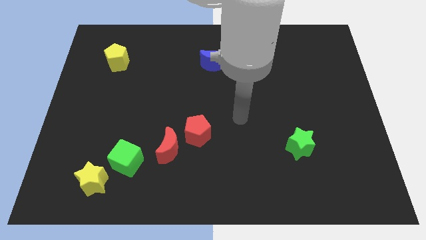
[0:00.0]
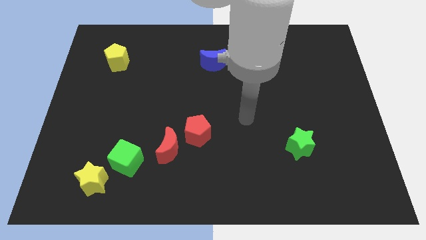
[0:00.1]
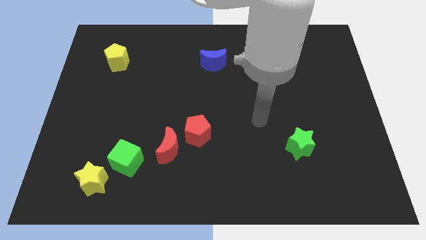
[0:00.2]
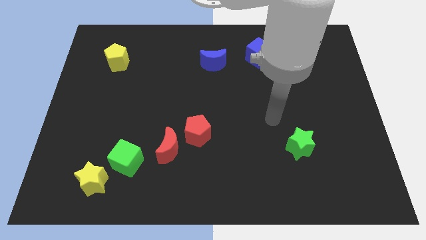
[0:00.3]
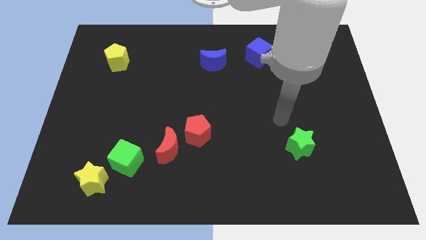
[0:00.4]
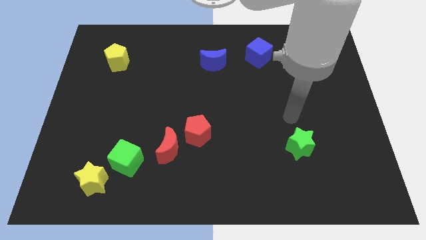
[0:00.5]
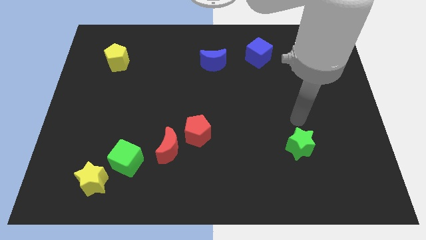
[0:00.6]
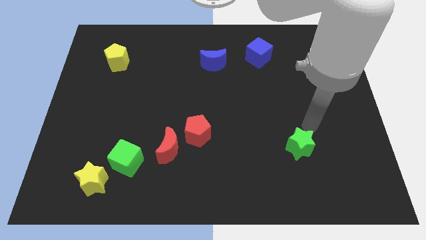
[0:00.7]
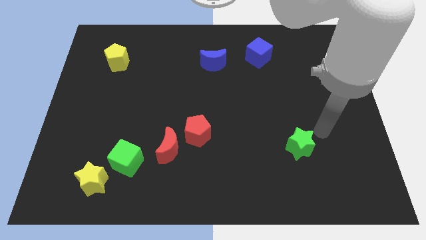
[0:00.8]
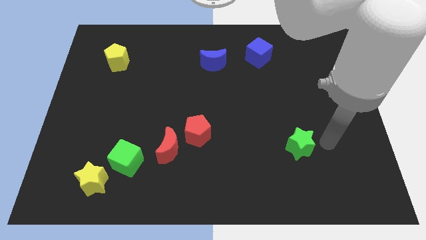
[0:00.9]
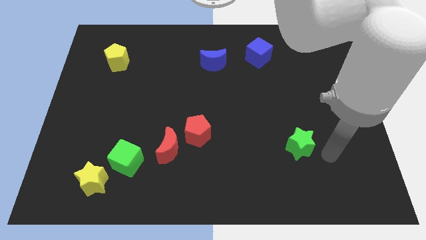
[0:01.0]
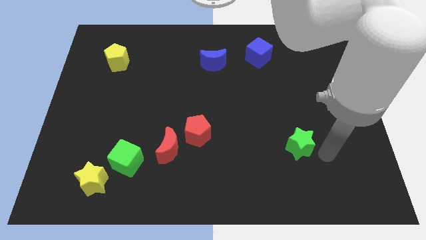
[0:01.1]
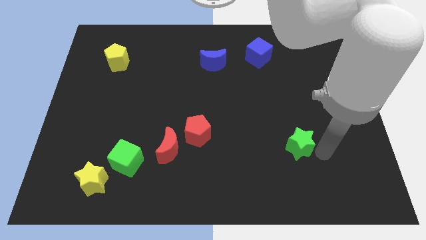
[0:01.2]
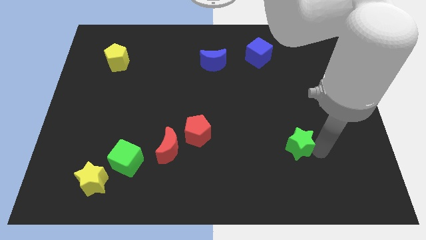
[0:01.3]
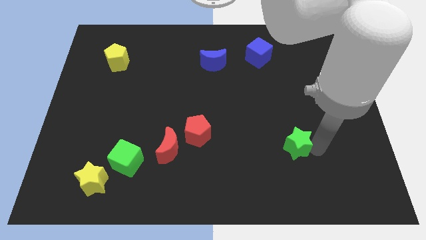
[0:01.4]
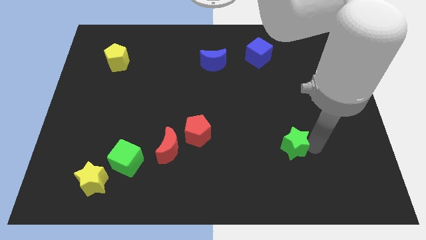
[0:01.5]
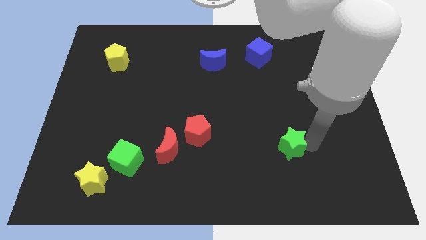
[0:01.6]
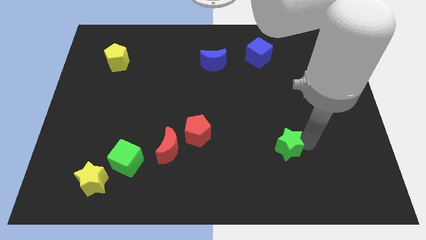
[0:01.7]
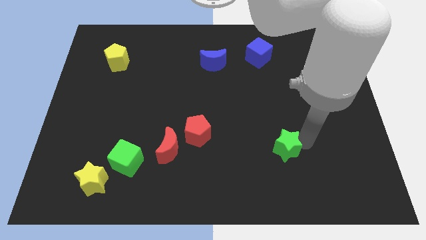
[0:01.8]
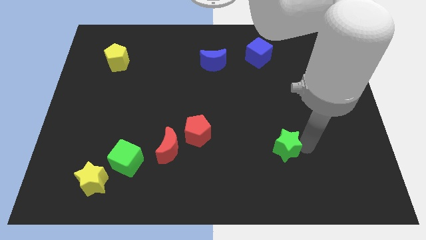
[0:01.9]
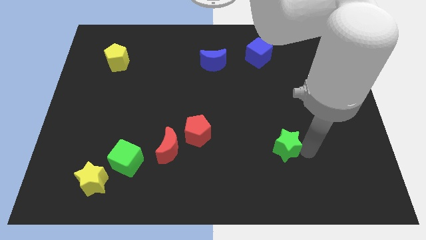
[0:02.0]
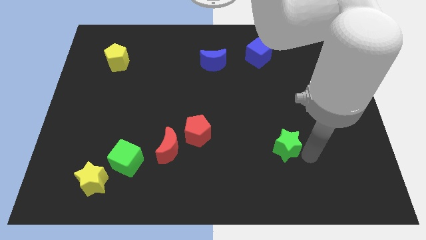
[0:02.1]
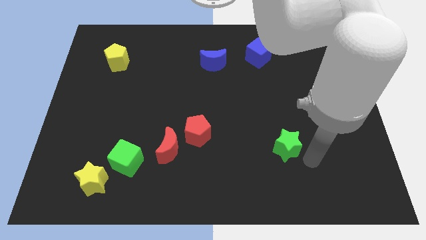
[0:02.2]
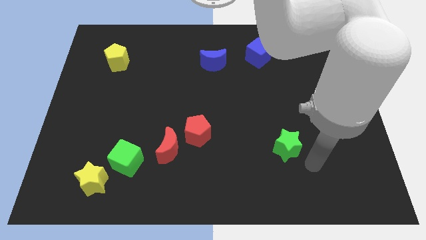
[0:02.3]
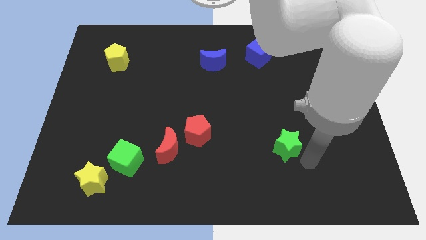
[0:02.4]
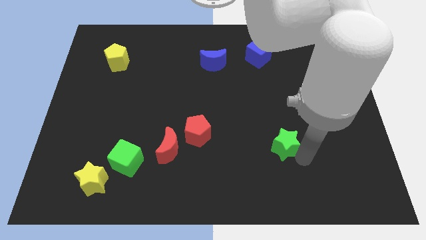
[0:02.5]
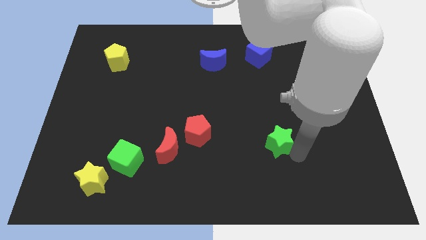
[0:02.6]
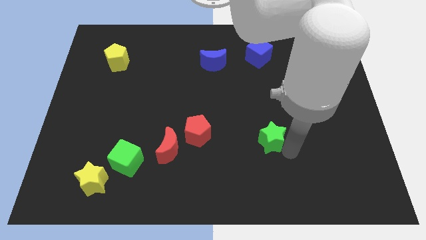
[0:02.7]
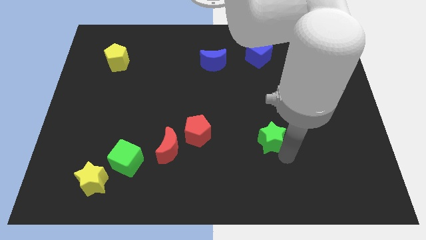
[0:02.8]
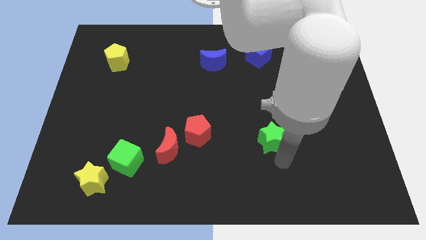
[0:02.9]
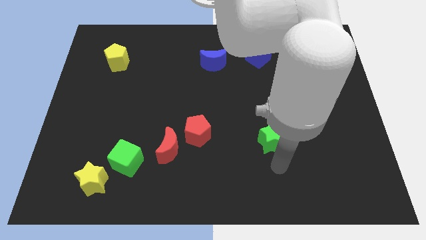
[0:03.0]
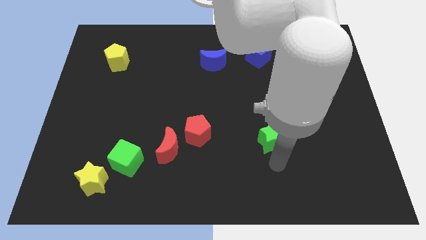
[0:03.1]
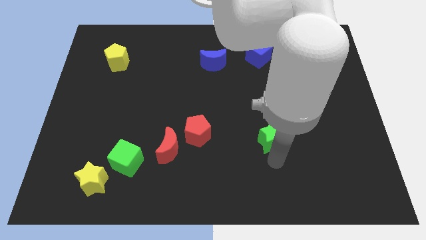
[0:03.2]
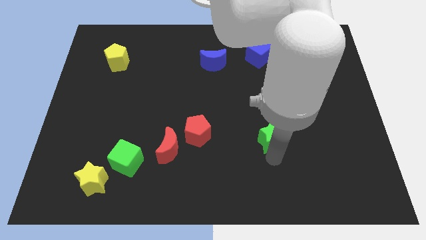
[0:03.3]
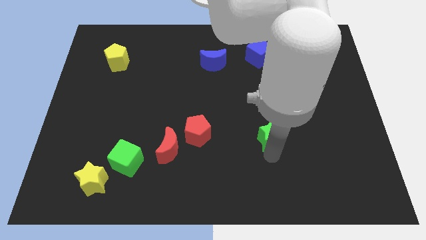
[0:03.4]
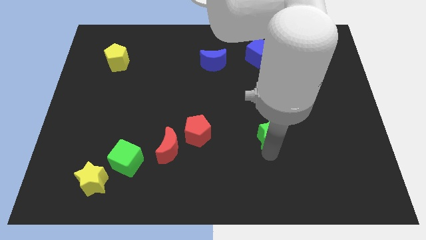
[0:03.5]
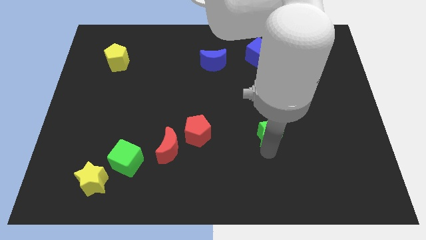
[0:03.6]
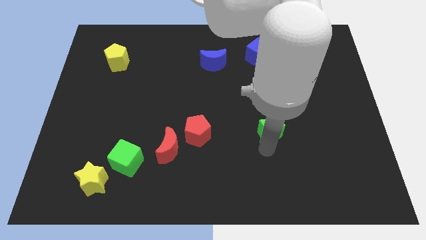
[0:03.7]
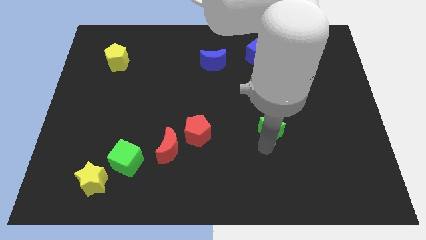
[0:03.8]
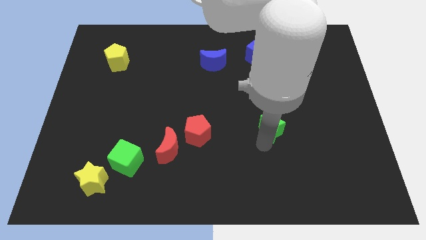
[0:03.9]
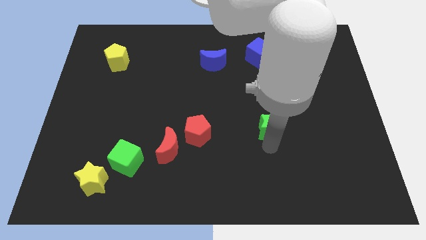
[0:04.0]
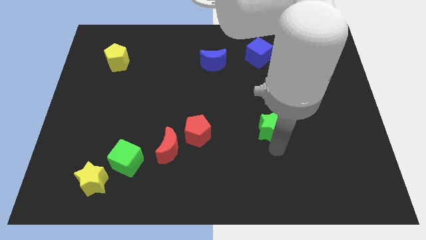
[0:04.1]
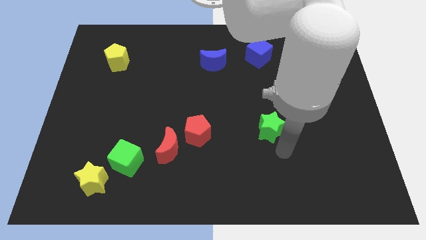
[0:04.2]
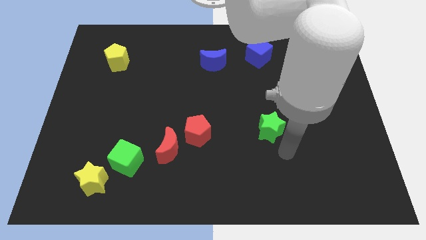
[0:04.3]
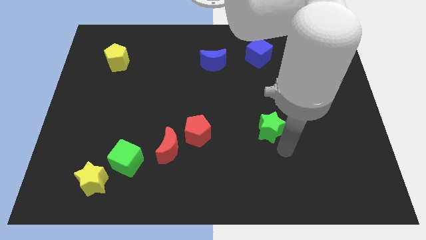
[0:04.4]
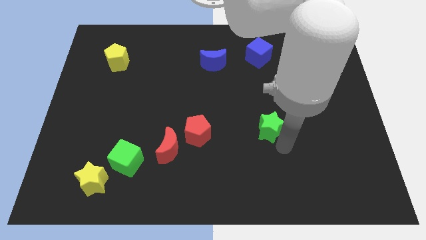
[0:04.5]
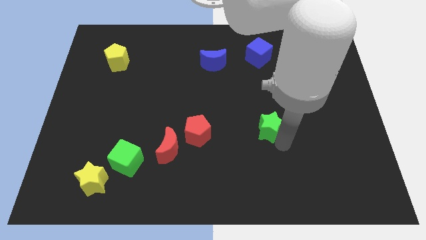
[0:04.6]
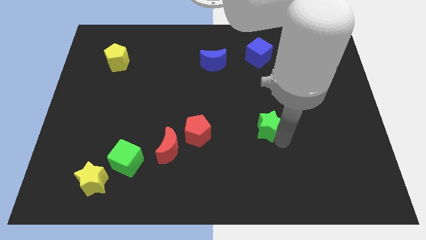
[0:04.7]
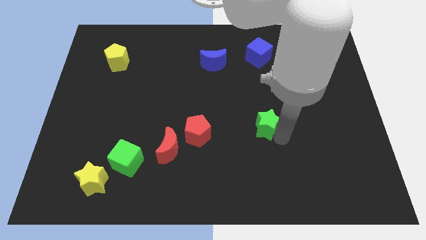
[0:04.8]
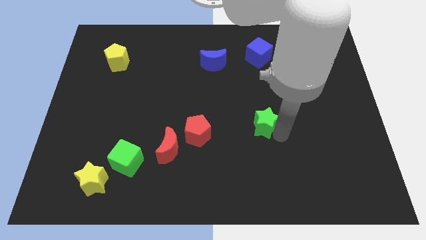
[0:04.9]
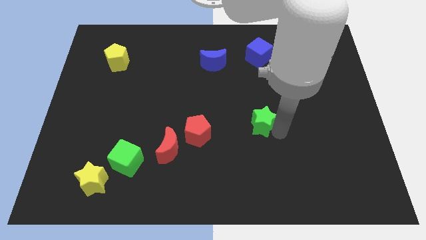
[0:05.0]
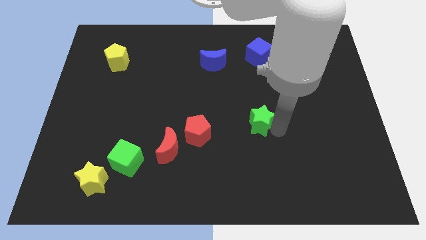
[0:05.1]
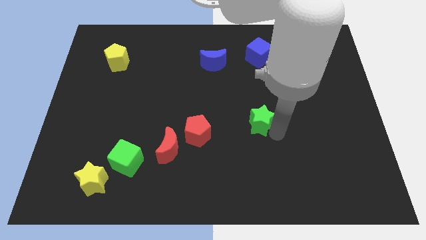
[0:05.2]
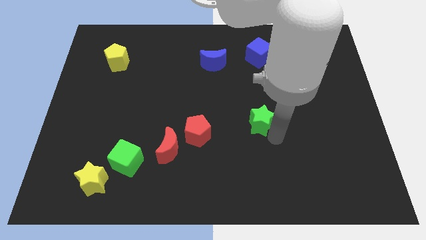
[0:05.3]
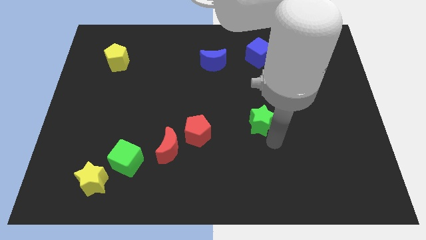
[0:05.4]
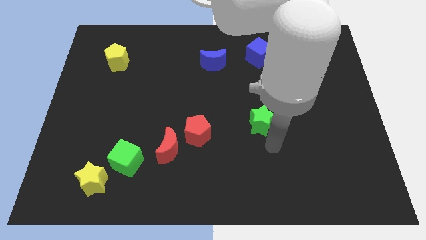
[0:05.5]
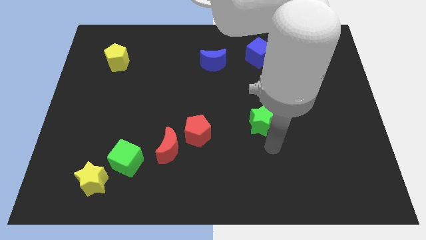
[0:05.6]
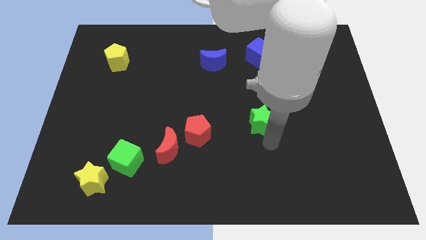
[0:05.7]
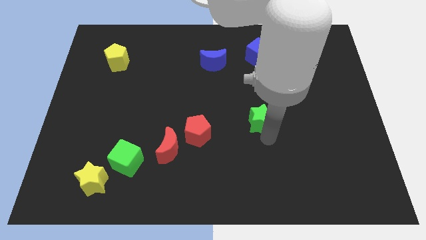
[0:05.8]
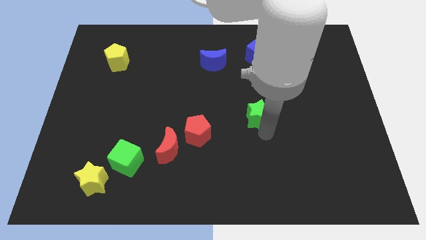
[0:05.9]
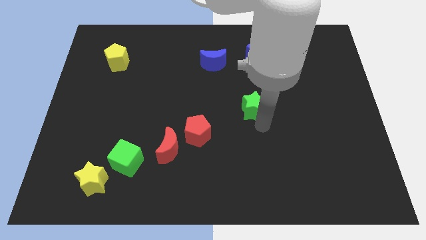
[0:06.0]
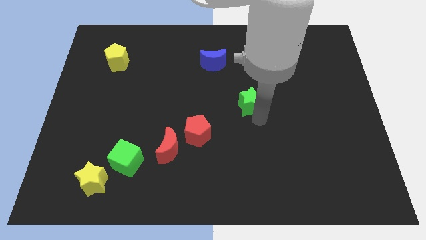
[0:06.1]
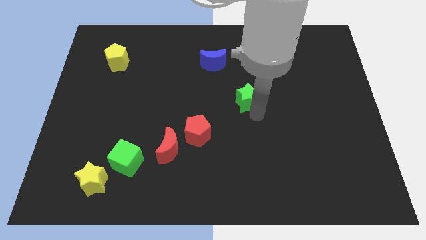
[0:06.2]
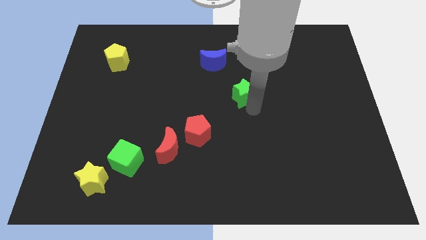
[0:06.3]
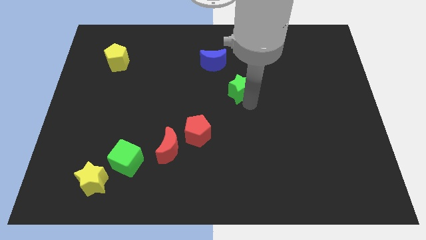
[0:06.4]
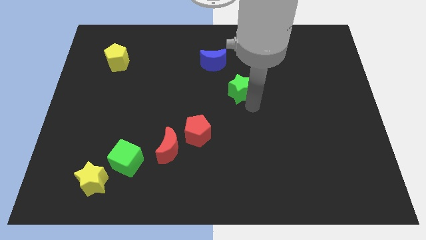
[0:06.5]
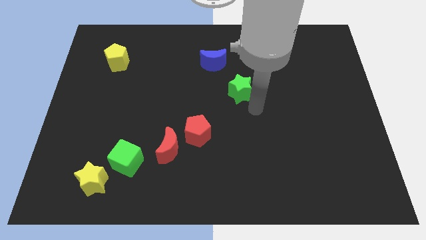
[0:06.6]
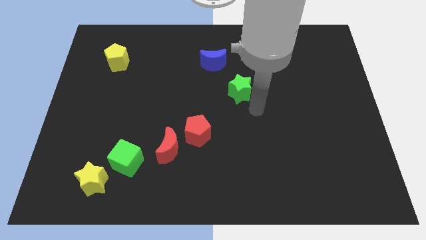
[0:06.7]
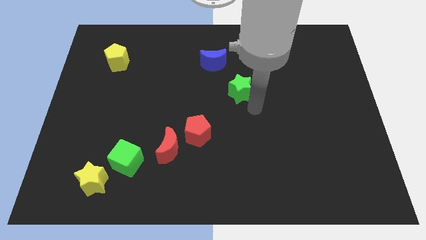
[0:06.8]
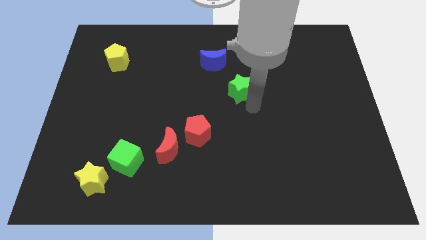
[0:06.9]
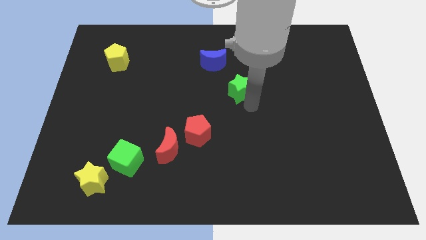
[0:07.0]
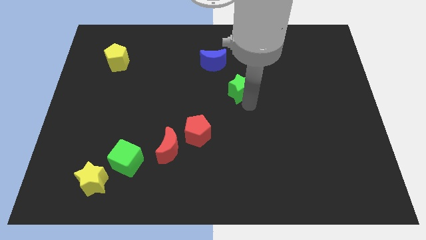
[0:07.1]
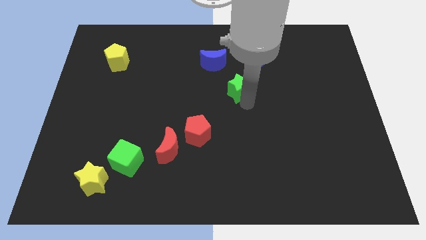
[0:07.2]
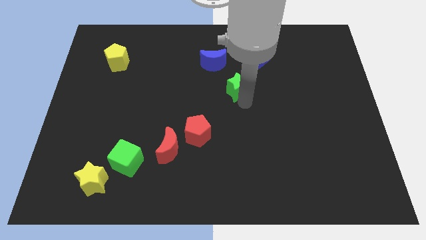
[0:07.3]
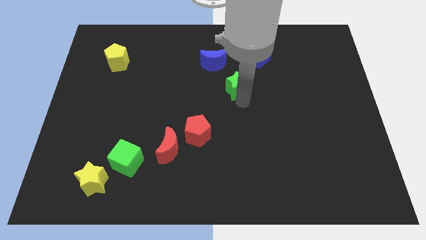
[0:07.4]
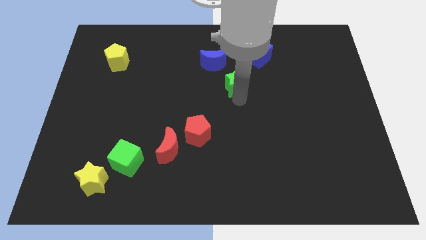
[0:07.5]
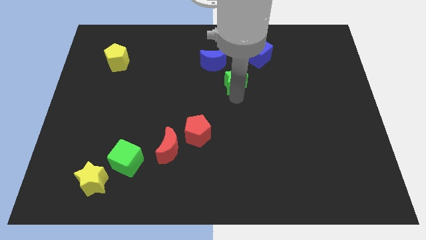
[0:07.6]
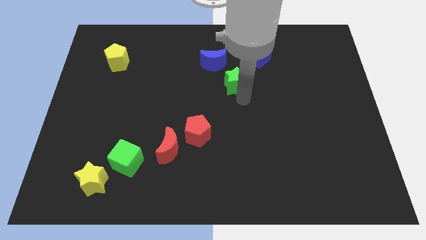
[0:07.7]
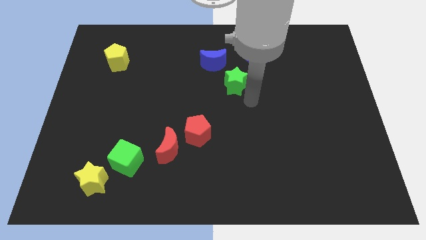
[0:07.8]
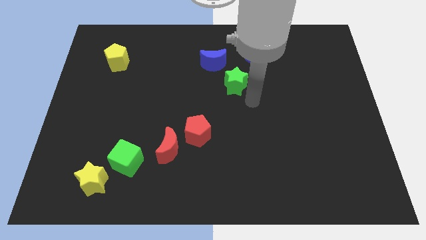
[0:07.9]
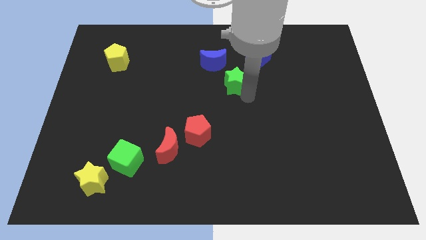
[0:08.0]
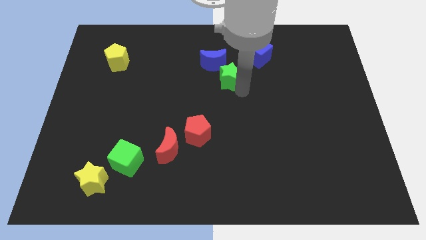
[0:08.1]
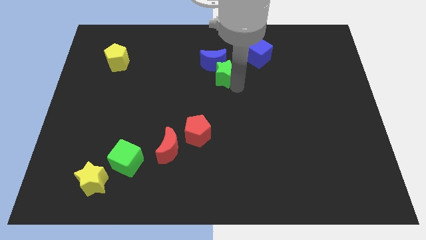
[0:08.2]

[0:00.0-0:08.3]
push the green star close to the blue moon
